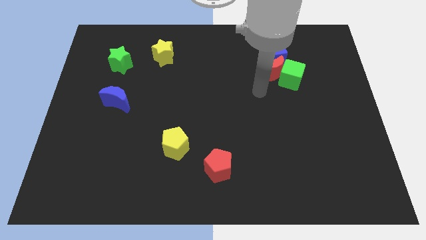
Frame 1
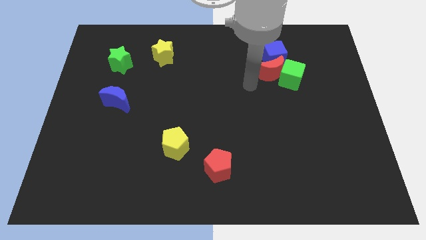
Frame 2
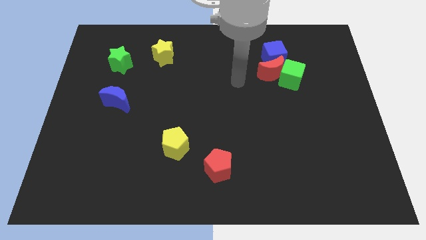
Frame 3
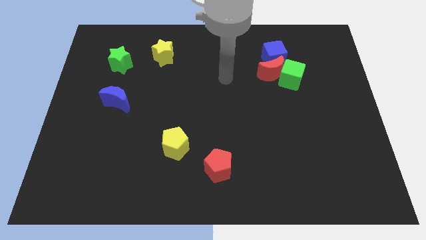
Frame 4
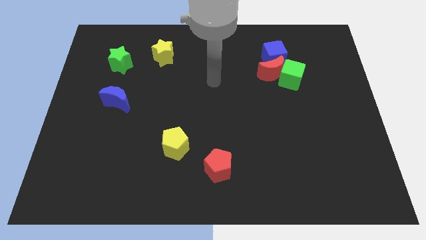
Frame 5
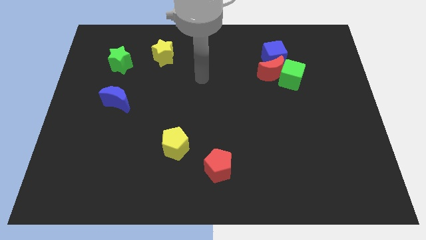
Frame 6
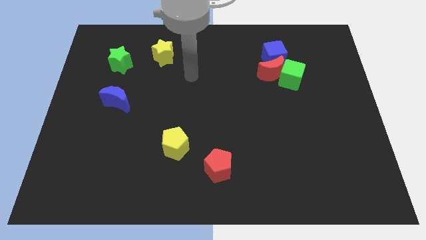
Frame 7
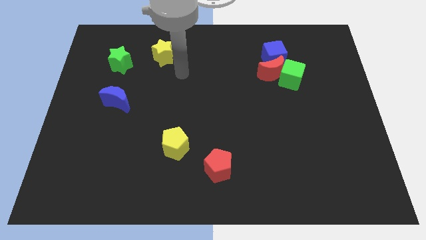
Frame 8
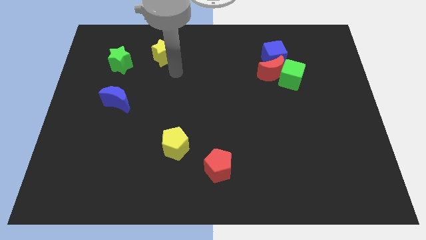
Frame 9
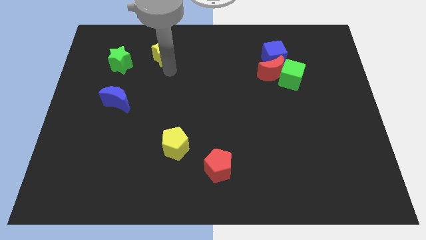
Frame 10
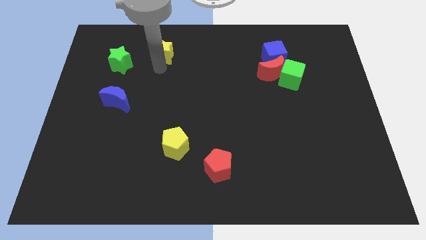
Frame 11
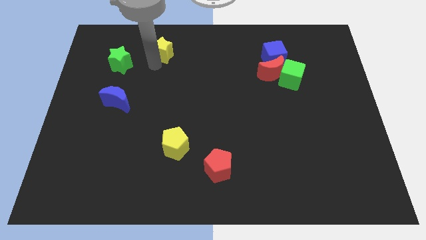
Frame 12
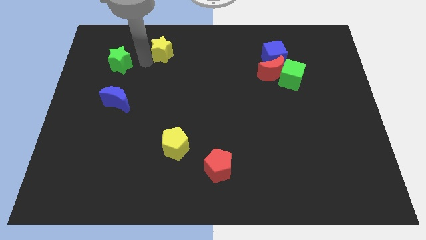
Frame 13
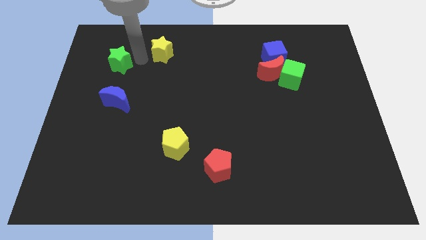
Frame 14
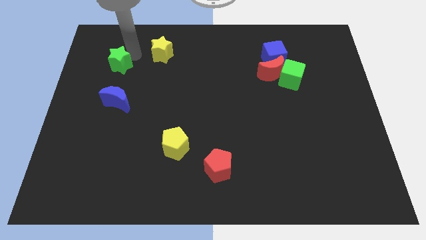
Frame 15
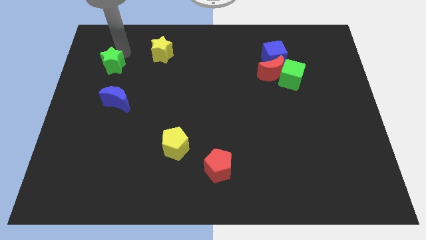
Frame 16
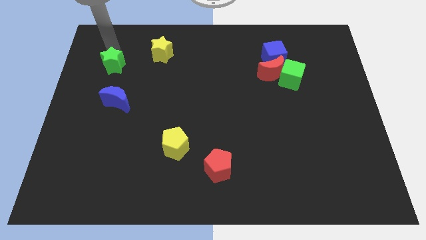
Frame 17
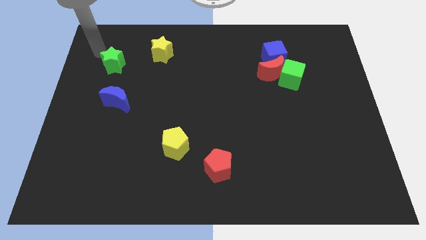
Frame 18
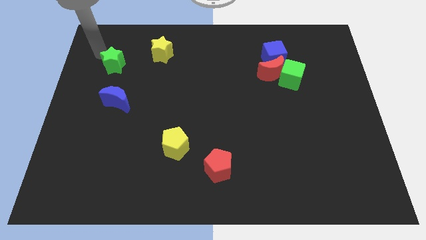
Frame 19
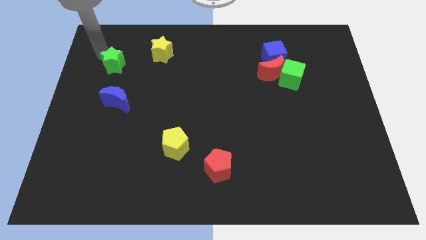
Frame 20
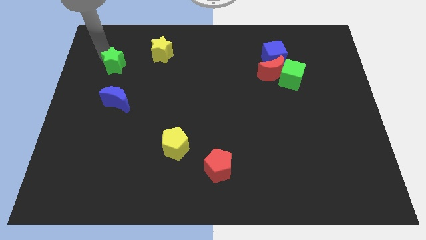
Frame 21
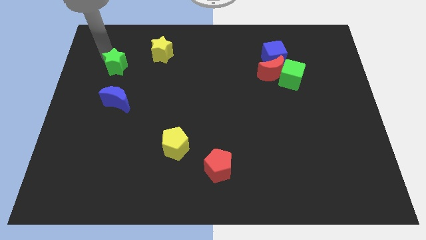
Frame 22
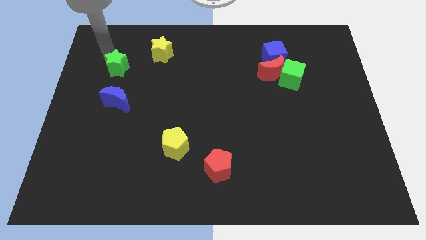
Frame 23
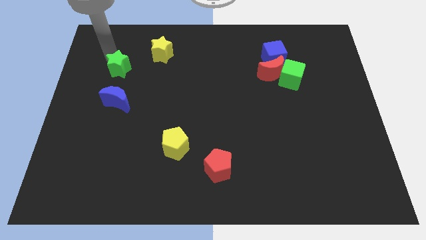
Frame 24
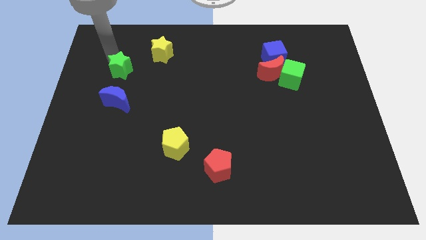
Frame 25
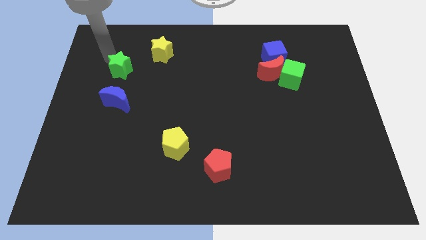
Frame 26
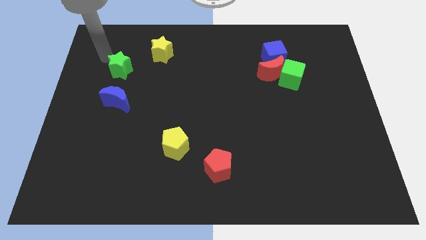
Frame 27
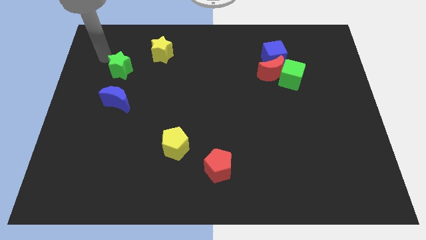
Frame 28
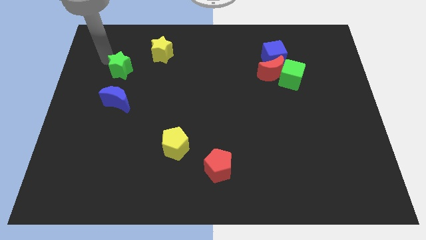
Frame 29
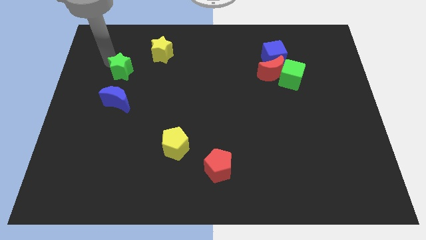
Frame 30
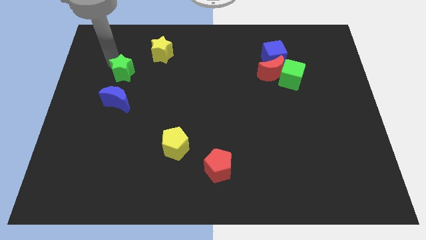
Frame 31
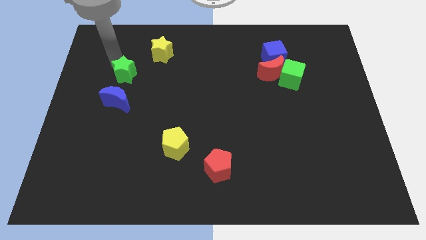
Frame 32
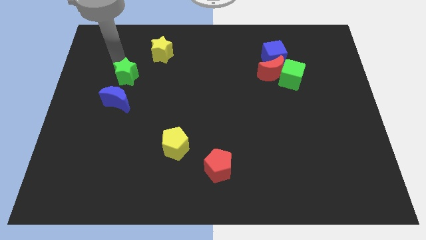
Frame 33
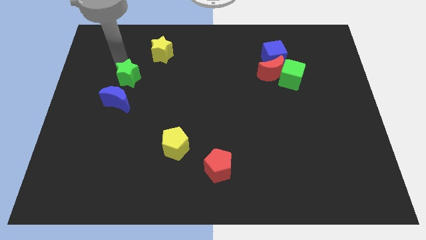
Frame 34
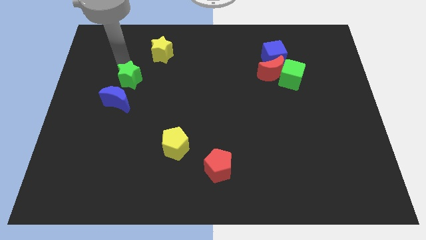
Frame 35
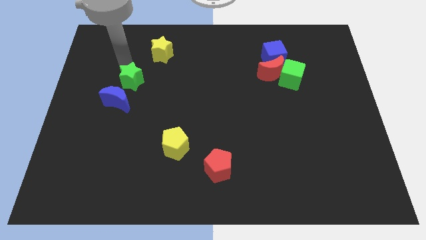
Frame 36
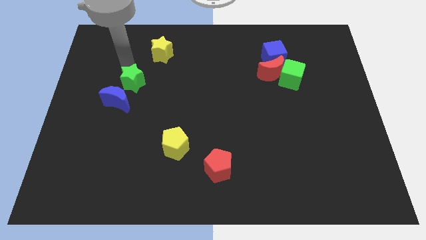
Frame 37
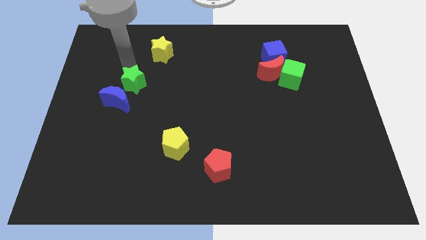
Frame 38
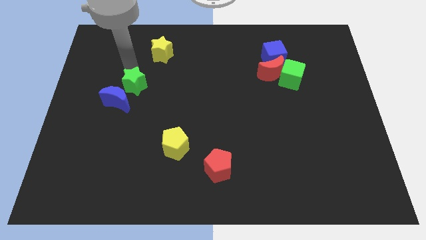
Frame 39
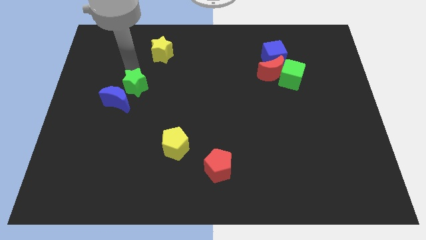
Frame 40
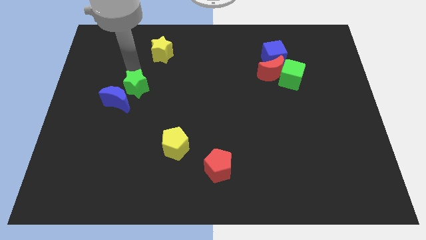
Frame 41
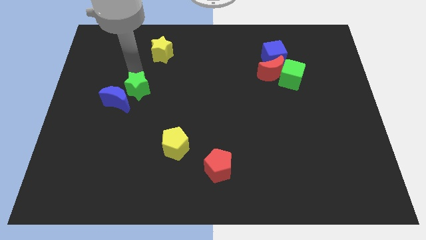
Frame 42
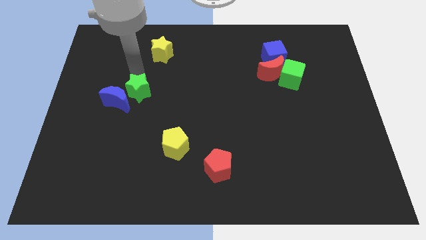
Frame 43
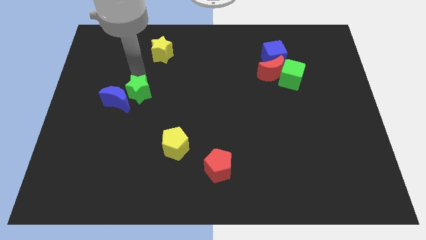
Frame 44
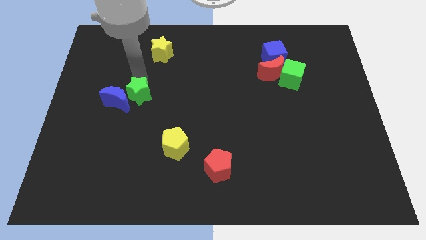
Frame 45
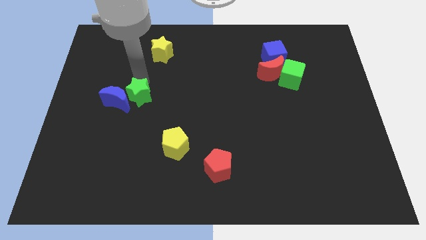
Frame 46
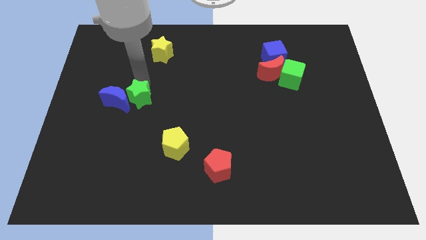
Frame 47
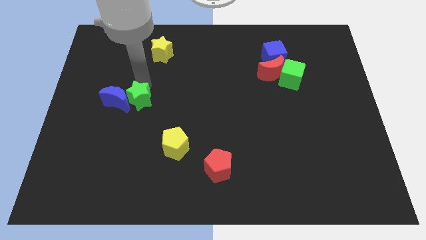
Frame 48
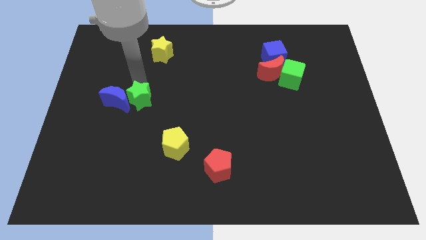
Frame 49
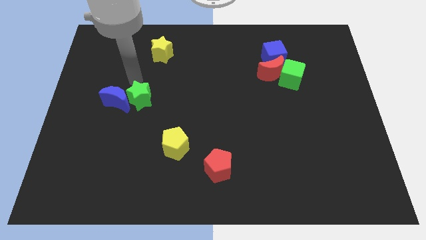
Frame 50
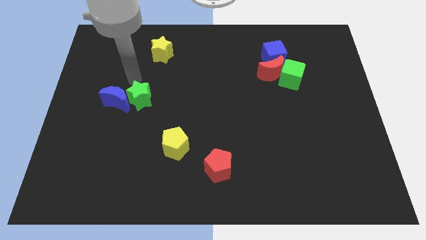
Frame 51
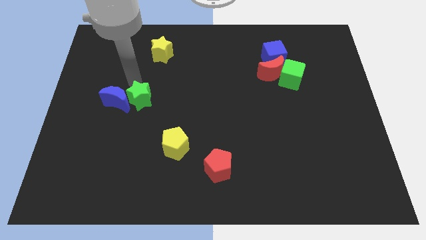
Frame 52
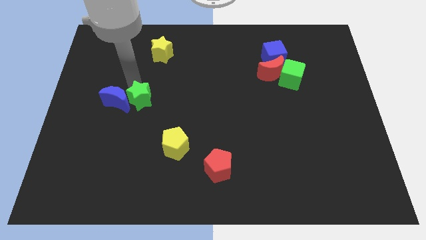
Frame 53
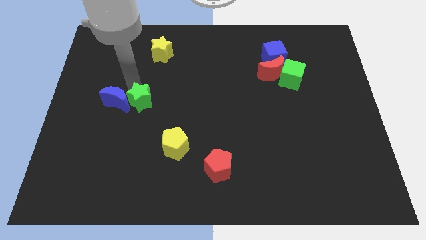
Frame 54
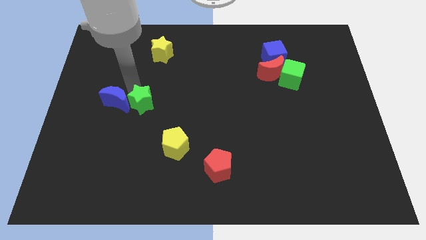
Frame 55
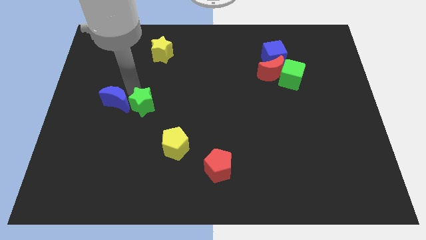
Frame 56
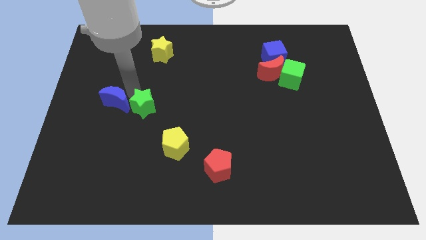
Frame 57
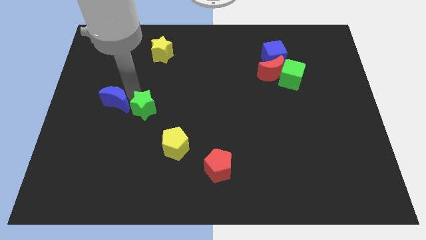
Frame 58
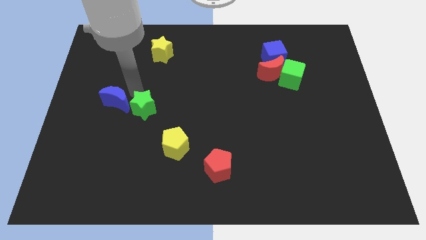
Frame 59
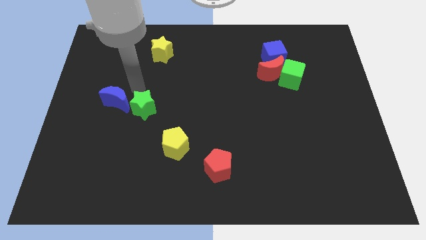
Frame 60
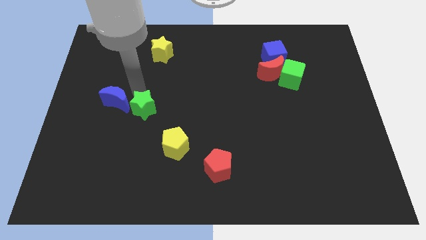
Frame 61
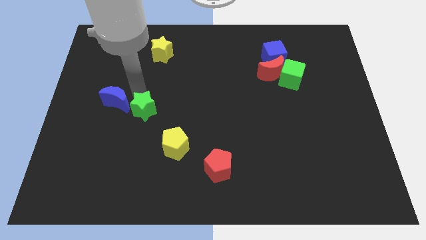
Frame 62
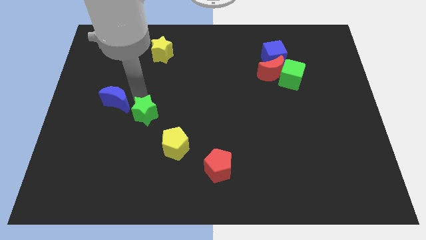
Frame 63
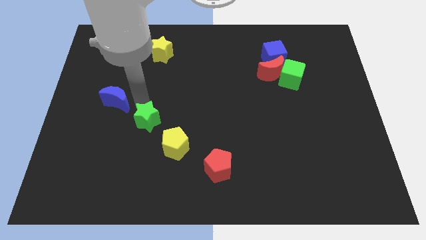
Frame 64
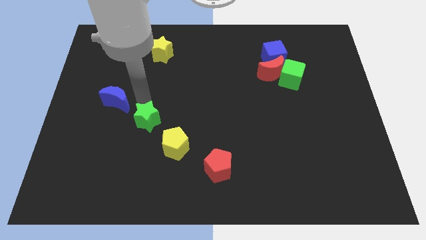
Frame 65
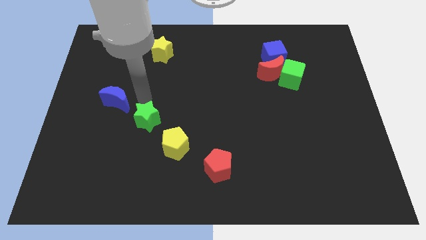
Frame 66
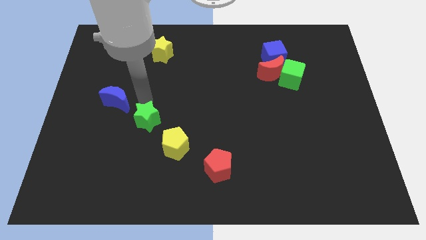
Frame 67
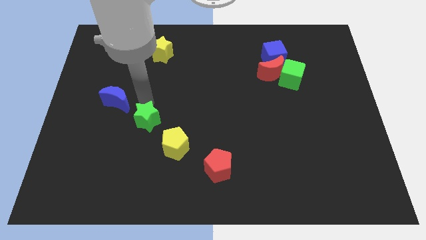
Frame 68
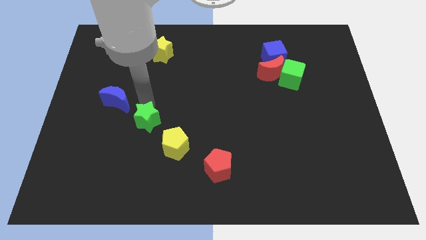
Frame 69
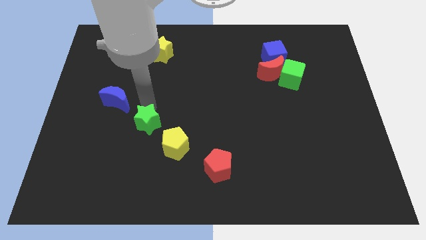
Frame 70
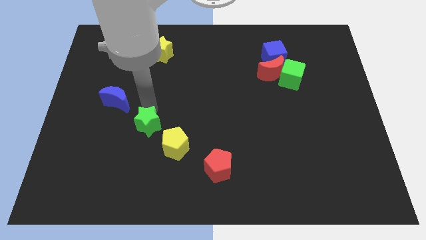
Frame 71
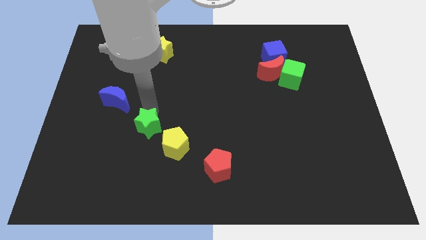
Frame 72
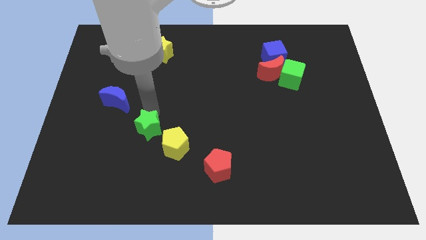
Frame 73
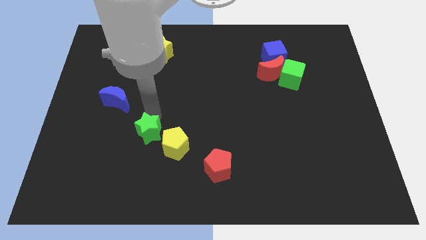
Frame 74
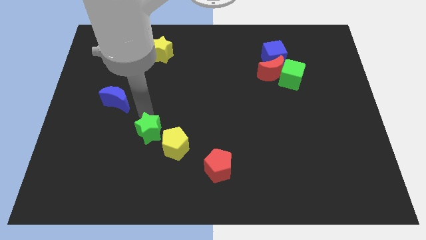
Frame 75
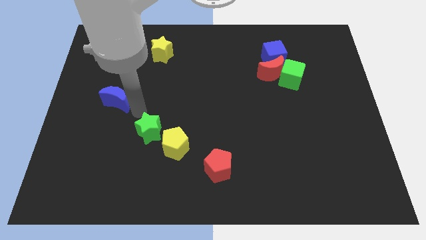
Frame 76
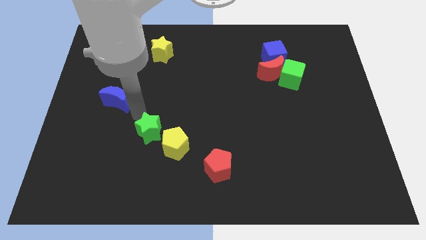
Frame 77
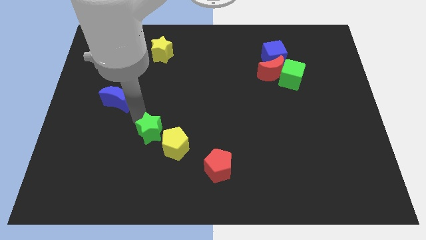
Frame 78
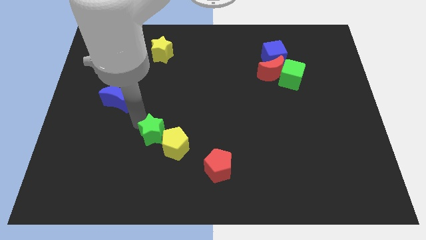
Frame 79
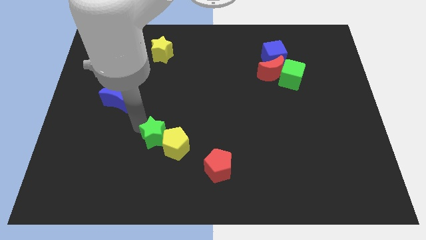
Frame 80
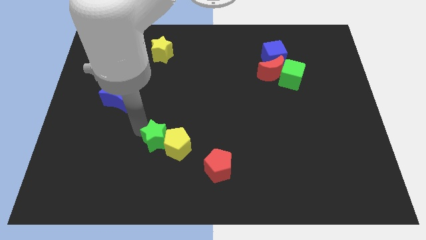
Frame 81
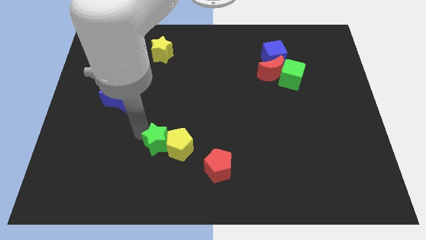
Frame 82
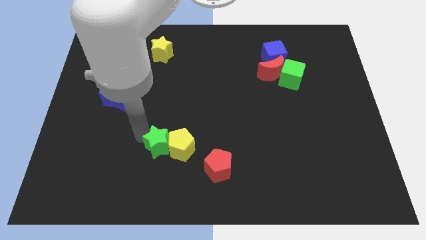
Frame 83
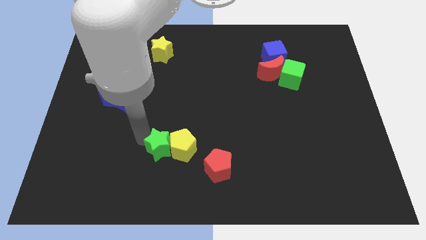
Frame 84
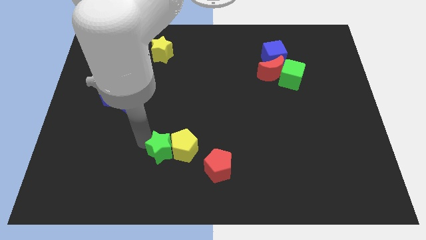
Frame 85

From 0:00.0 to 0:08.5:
move the green star left of the red pentagon
